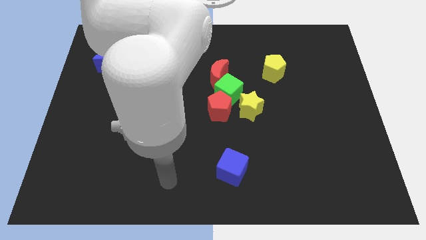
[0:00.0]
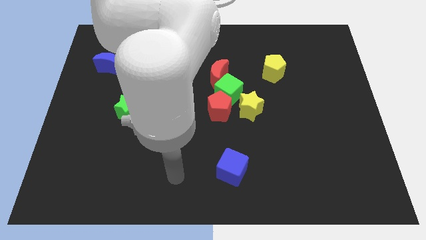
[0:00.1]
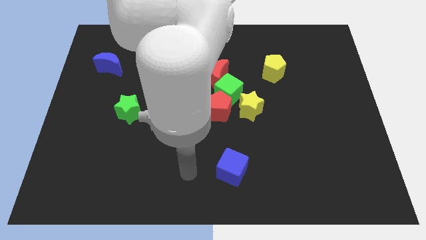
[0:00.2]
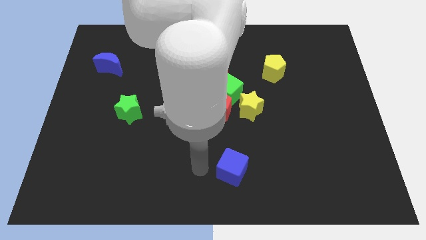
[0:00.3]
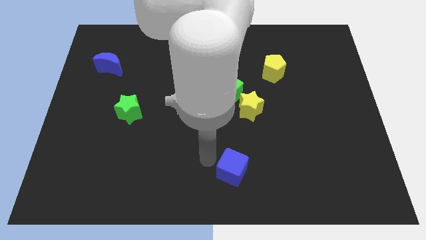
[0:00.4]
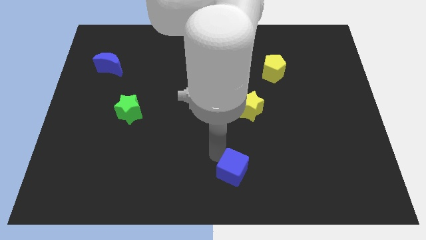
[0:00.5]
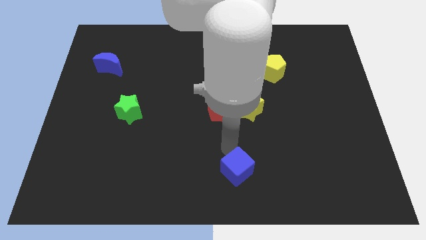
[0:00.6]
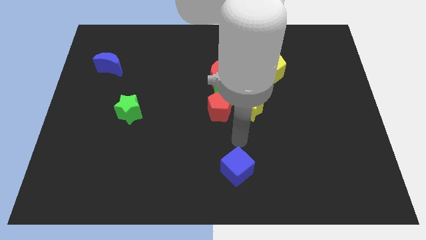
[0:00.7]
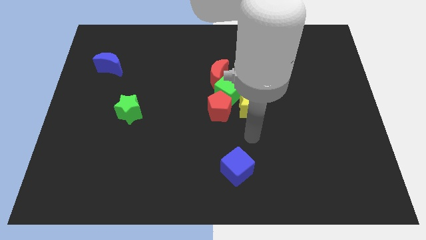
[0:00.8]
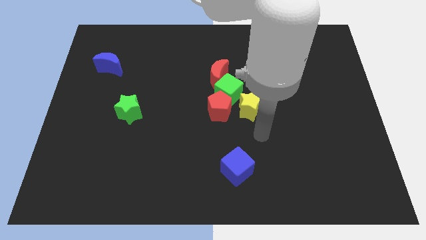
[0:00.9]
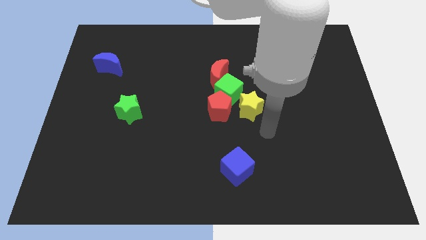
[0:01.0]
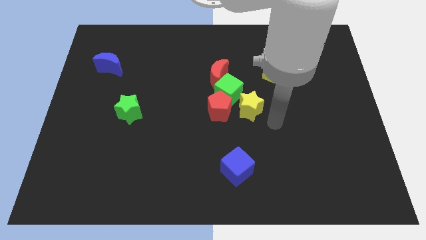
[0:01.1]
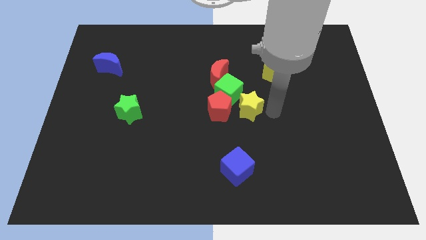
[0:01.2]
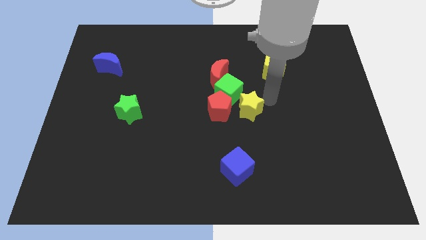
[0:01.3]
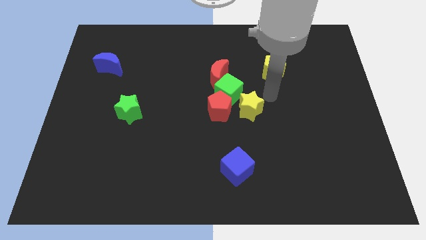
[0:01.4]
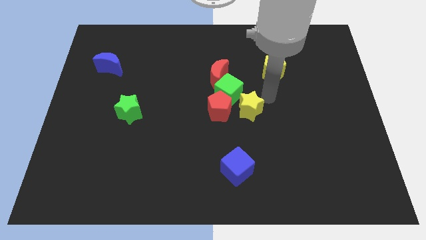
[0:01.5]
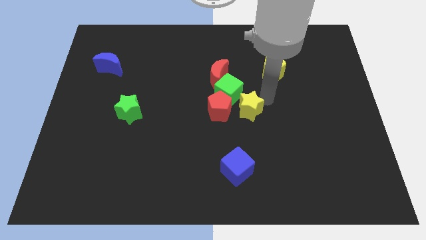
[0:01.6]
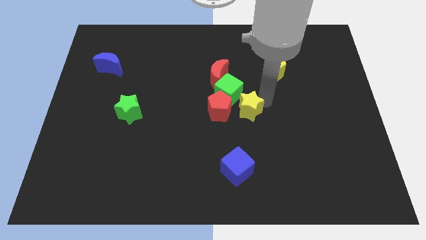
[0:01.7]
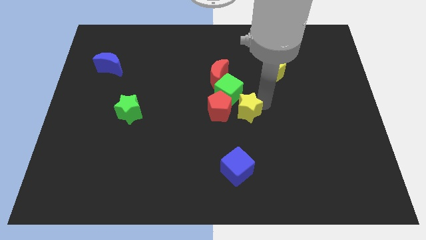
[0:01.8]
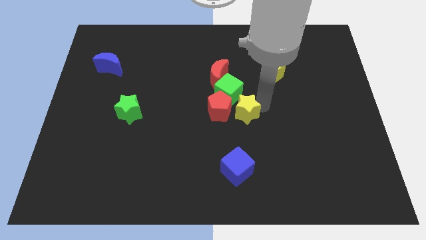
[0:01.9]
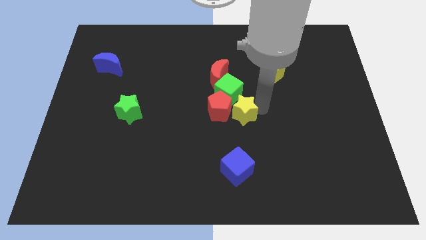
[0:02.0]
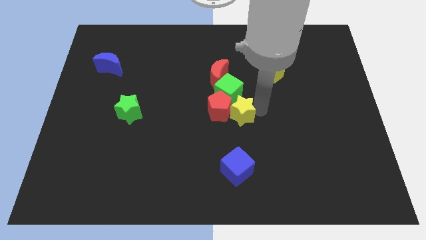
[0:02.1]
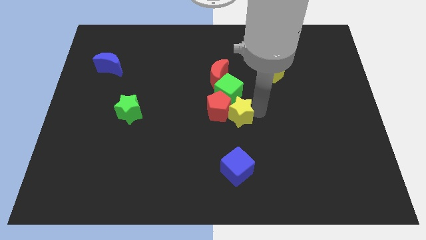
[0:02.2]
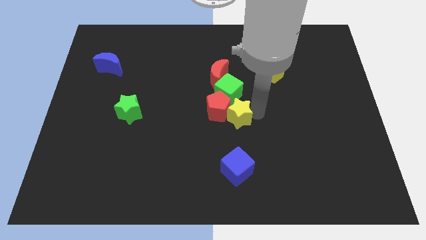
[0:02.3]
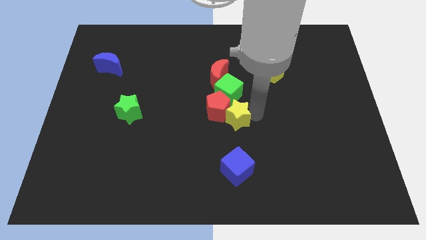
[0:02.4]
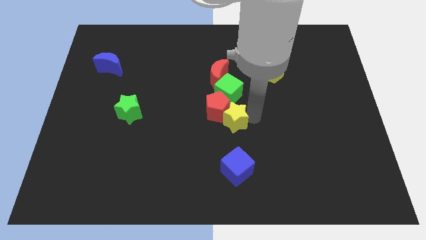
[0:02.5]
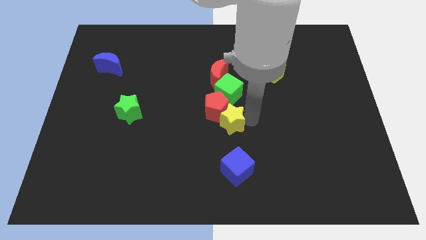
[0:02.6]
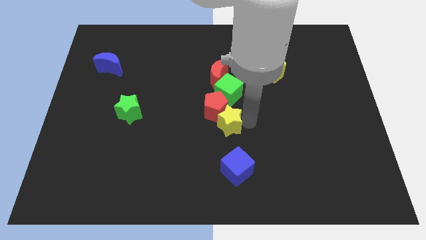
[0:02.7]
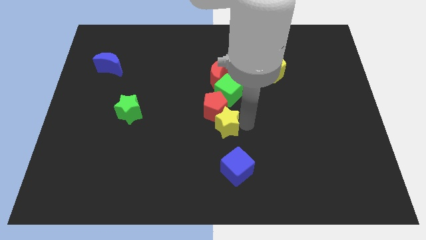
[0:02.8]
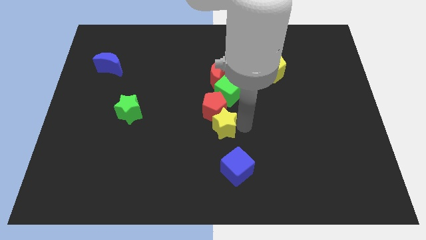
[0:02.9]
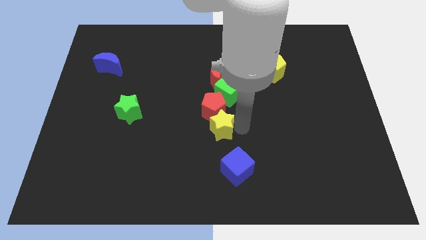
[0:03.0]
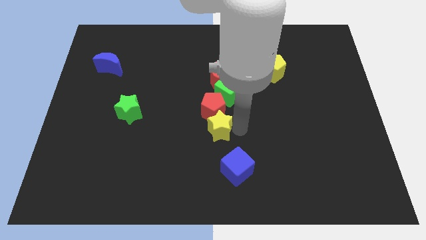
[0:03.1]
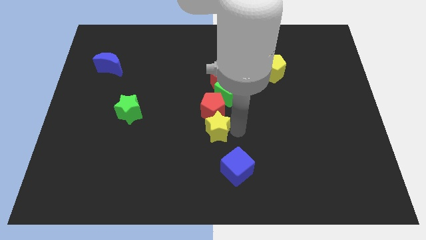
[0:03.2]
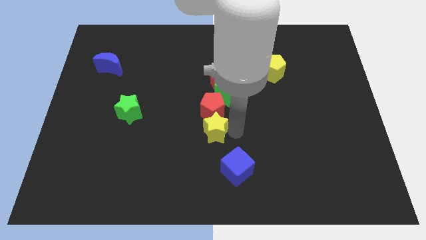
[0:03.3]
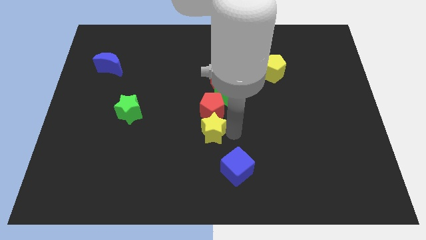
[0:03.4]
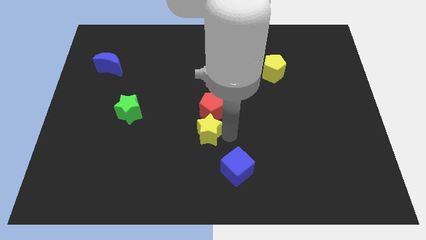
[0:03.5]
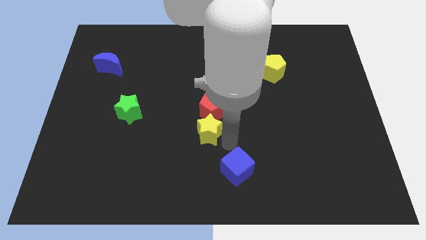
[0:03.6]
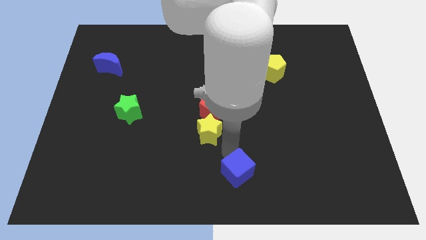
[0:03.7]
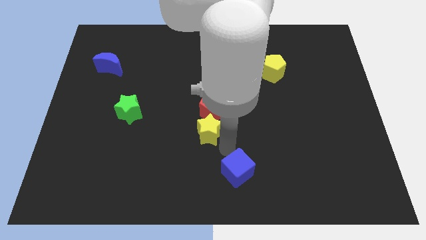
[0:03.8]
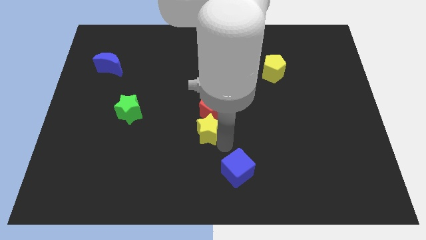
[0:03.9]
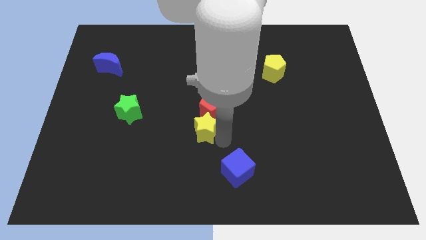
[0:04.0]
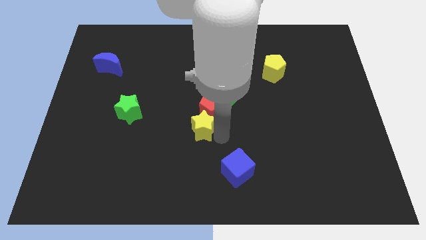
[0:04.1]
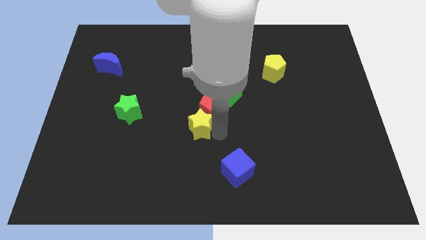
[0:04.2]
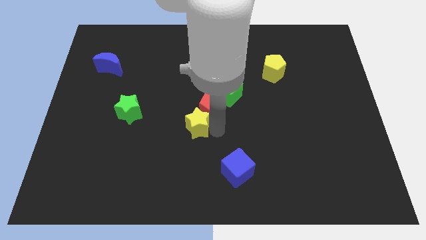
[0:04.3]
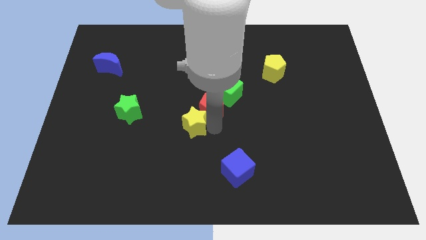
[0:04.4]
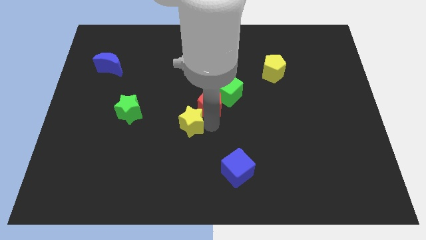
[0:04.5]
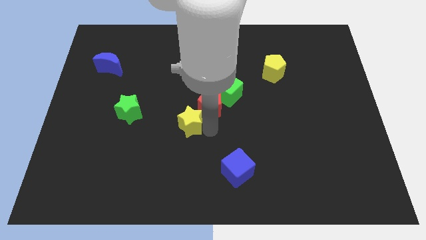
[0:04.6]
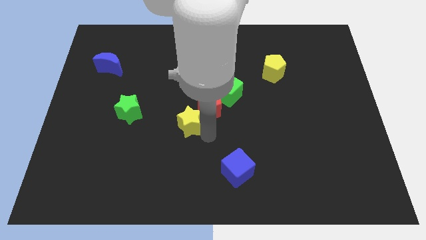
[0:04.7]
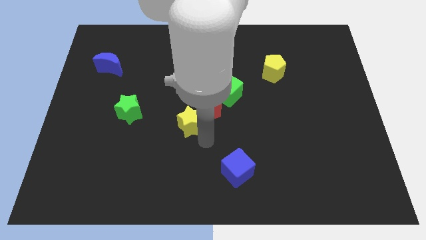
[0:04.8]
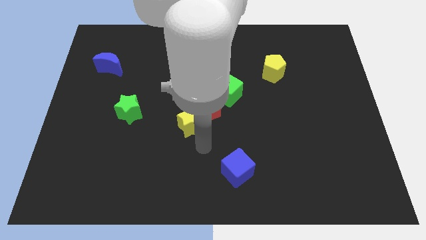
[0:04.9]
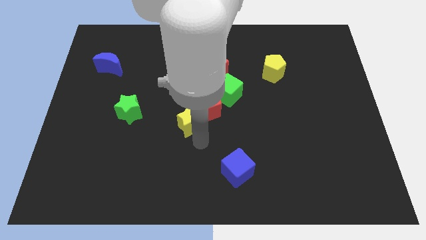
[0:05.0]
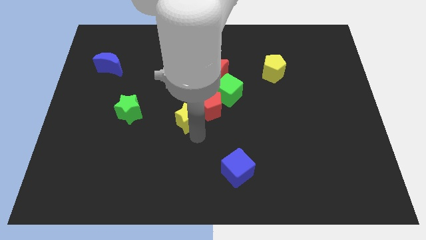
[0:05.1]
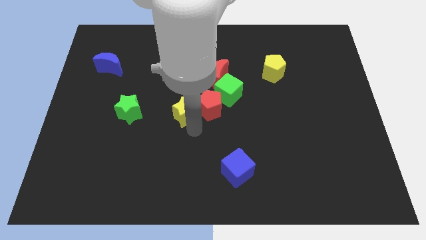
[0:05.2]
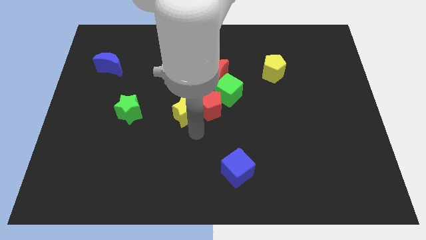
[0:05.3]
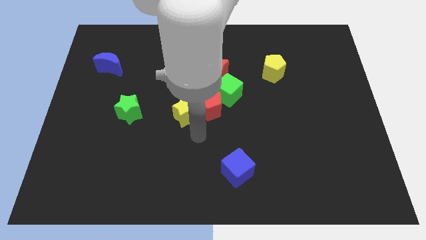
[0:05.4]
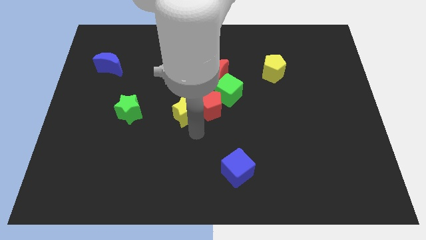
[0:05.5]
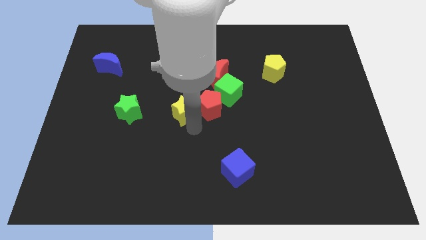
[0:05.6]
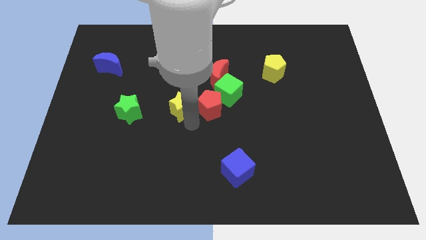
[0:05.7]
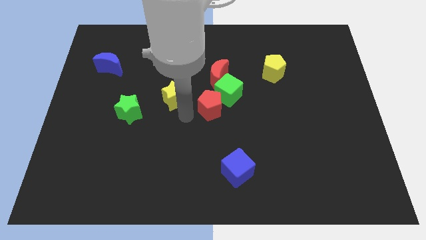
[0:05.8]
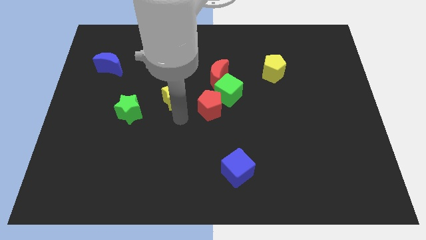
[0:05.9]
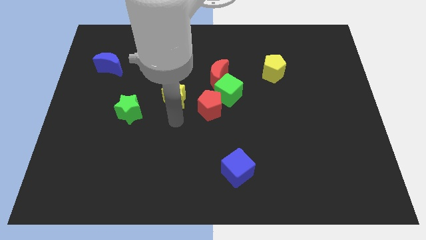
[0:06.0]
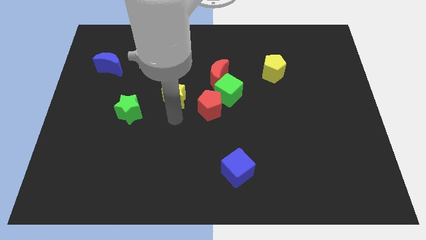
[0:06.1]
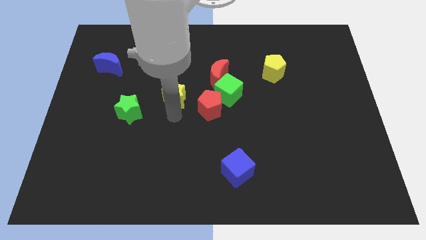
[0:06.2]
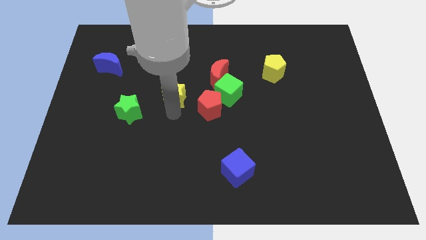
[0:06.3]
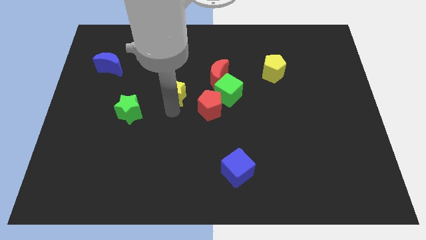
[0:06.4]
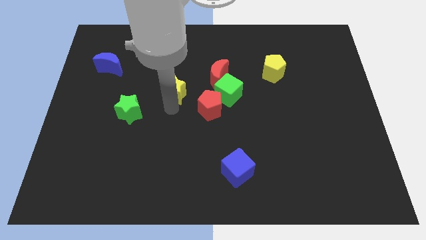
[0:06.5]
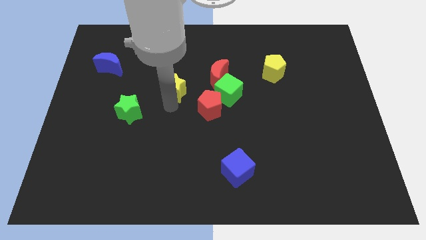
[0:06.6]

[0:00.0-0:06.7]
put the yellow star left of the red moon

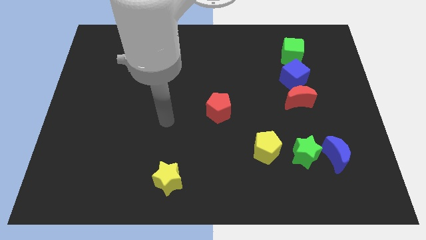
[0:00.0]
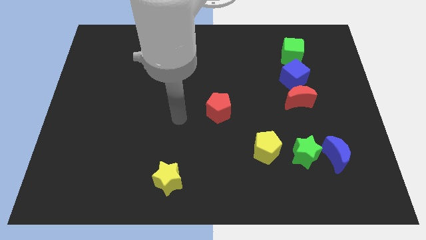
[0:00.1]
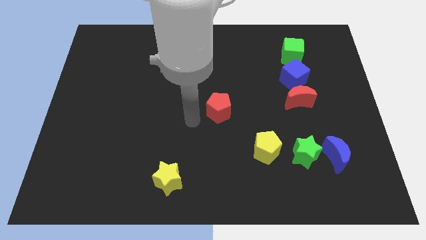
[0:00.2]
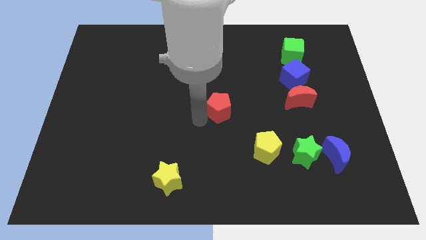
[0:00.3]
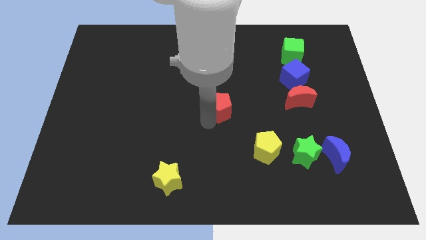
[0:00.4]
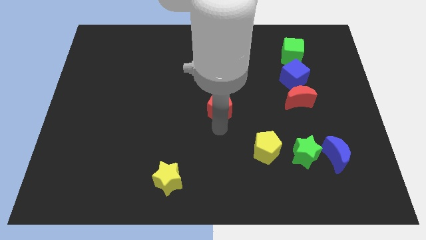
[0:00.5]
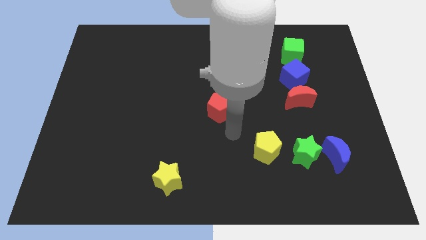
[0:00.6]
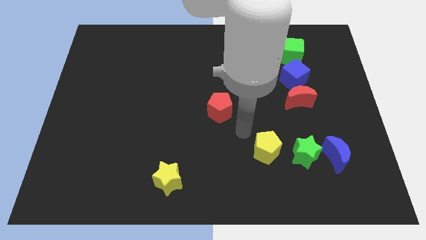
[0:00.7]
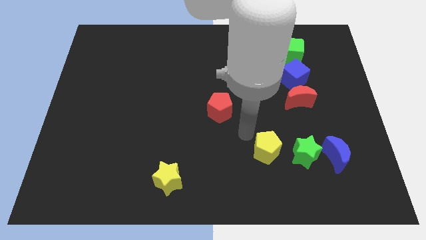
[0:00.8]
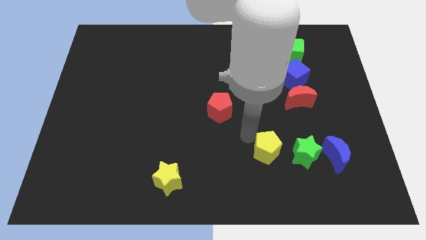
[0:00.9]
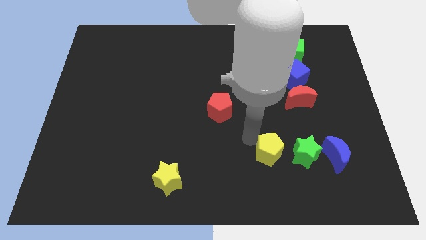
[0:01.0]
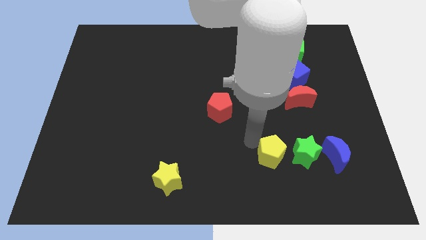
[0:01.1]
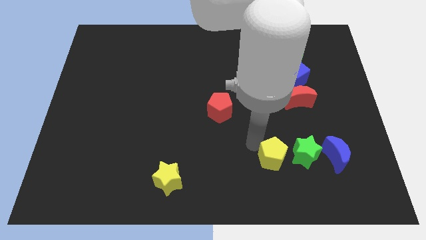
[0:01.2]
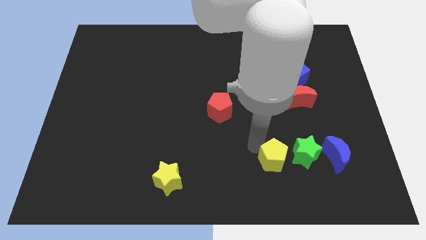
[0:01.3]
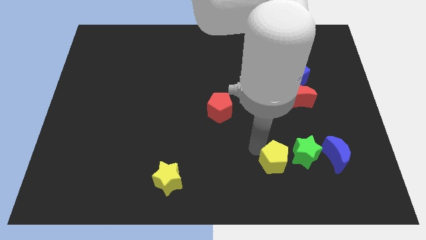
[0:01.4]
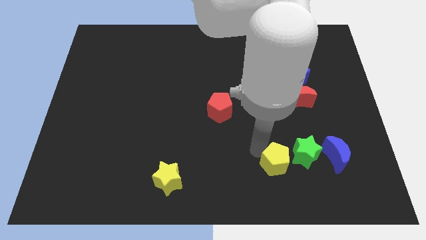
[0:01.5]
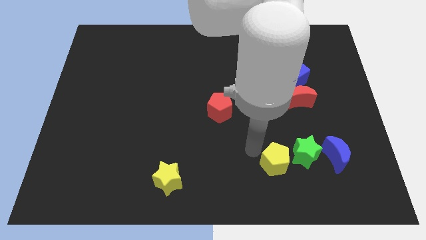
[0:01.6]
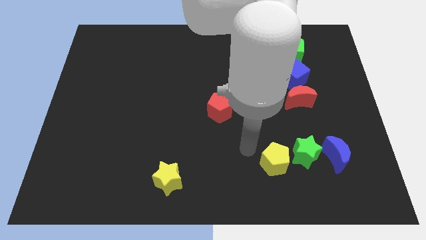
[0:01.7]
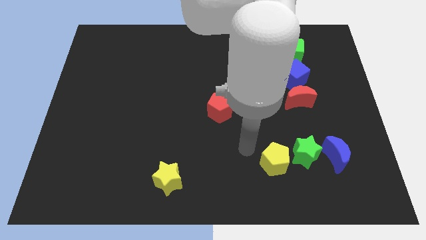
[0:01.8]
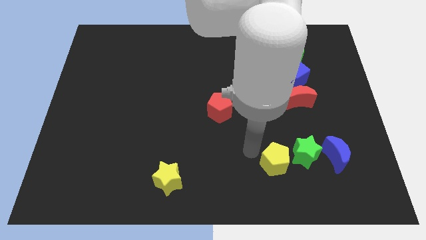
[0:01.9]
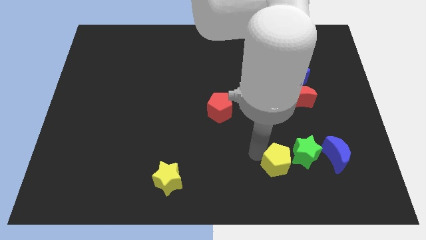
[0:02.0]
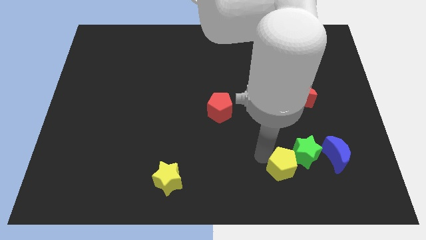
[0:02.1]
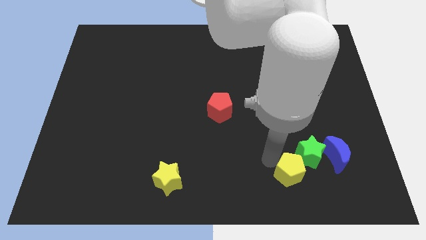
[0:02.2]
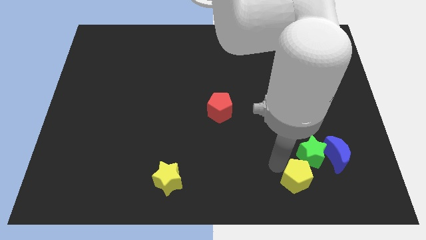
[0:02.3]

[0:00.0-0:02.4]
push the yellow pentagon diagonally down and to the left of the blue moon
